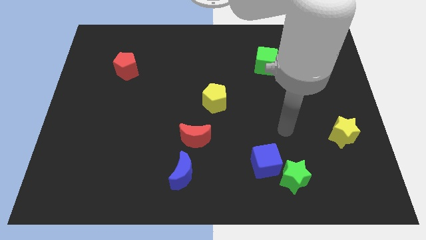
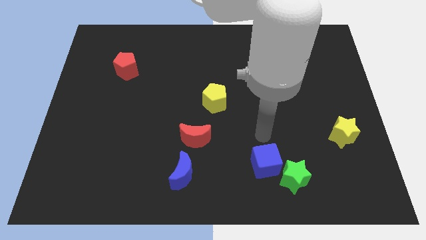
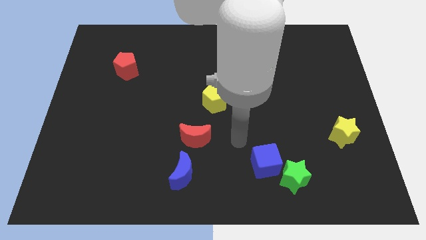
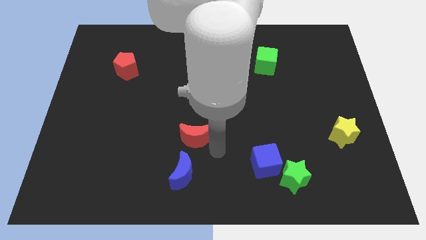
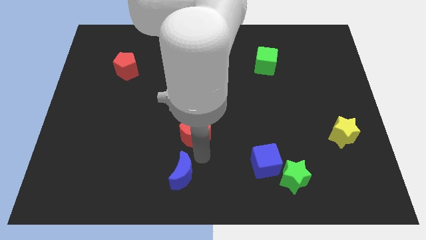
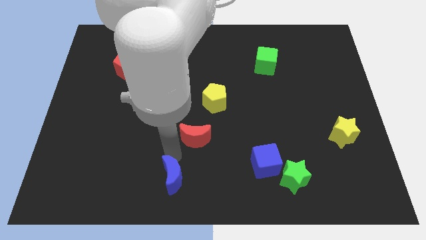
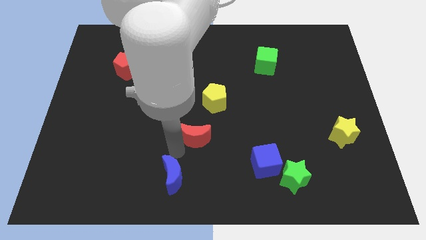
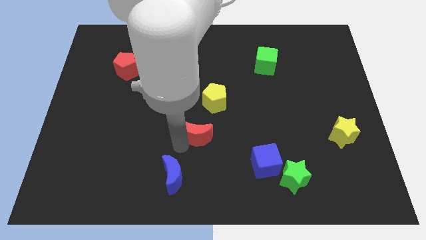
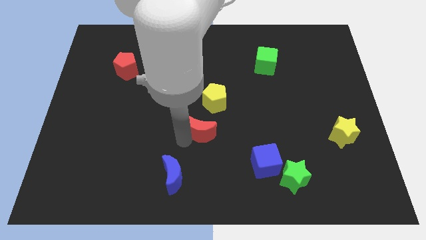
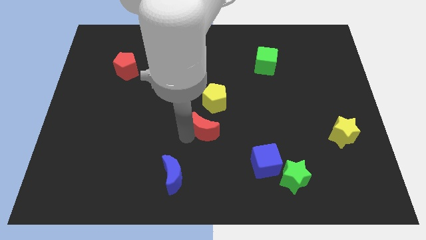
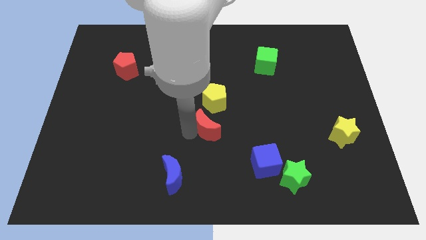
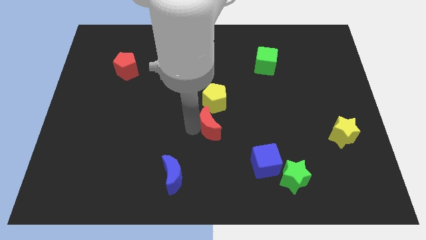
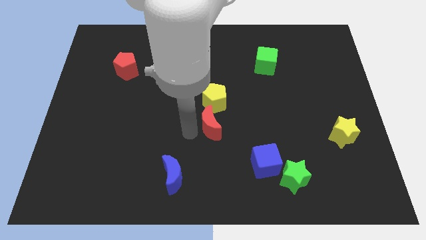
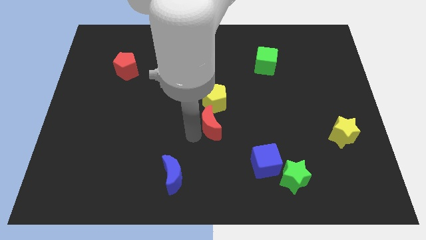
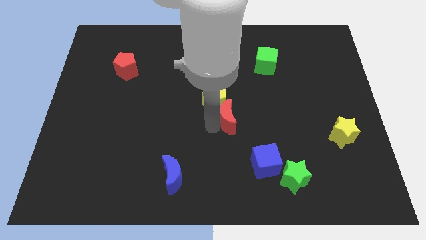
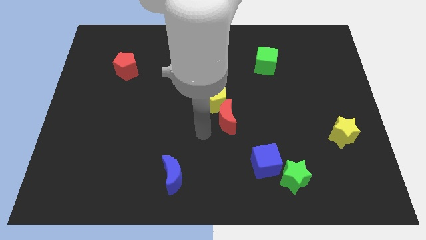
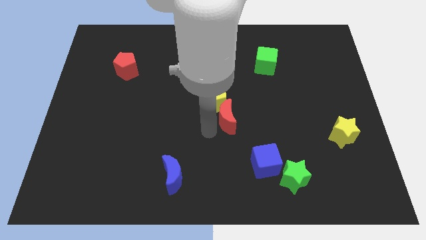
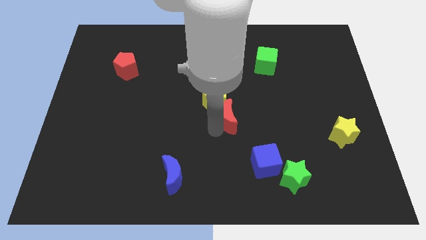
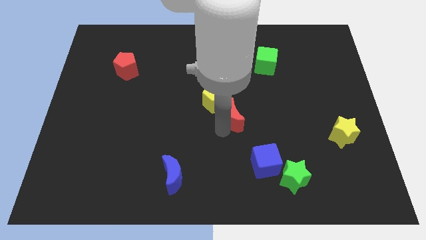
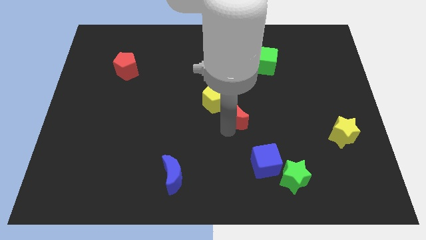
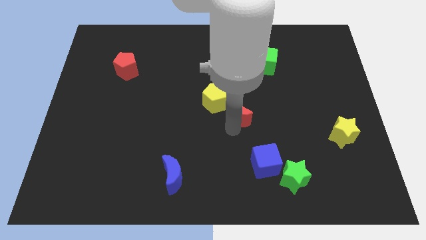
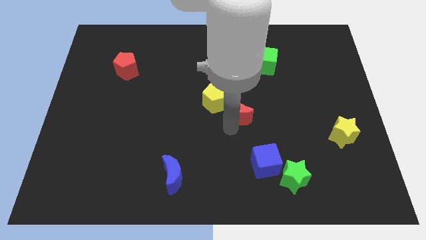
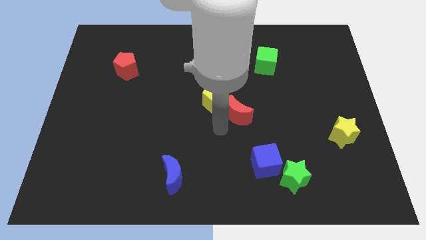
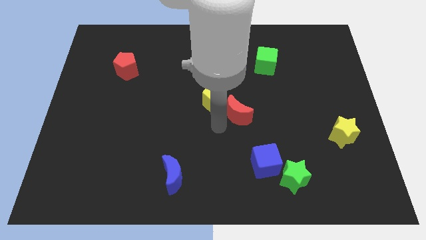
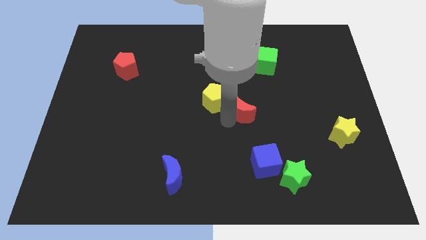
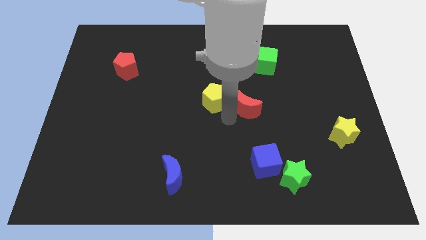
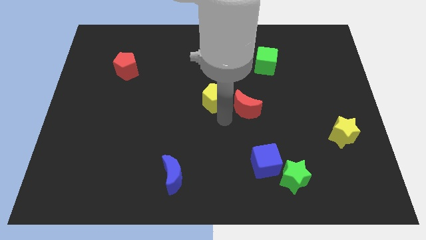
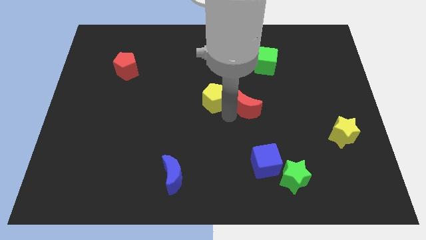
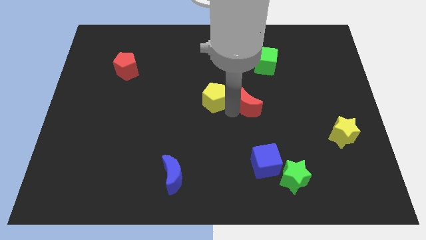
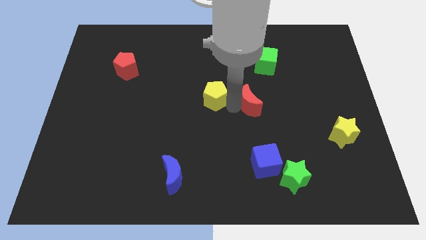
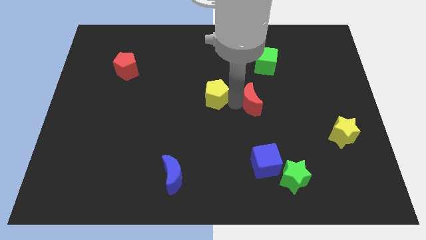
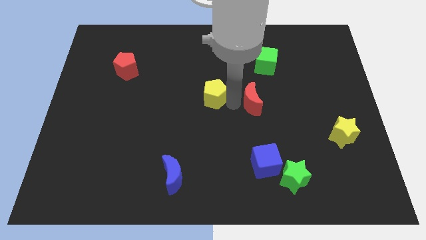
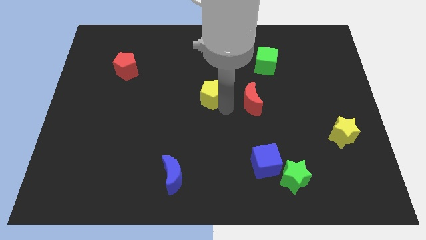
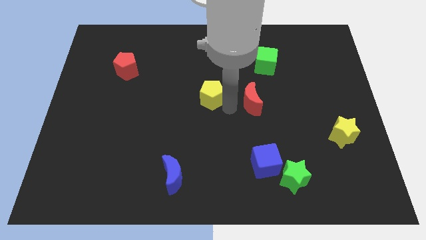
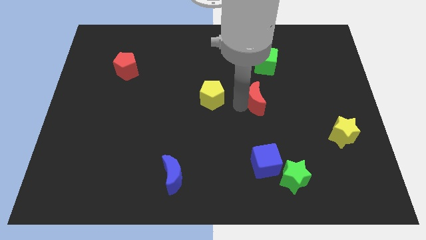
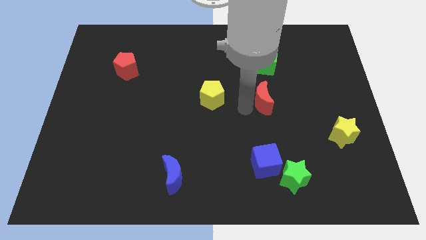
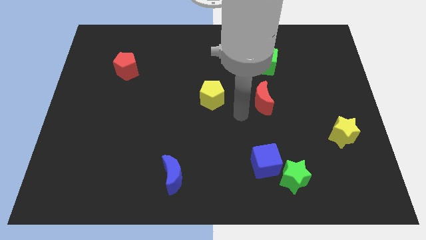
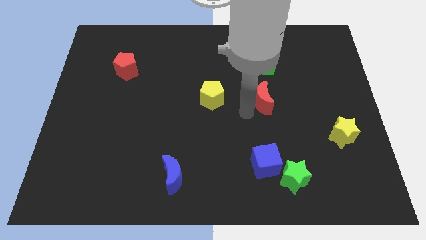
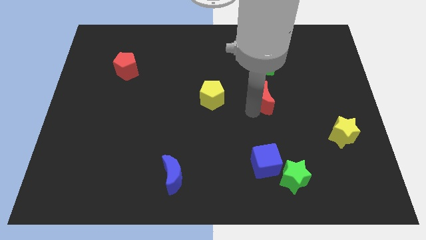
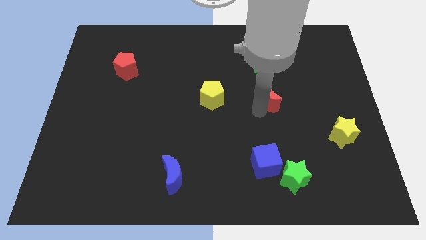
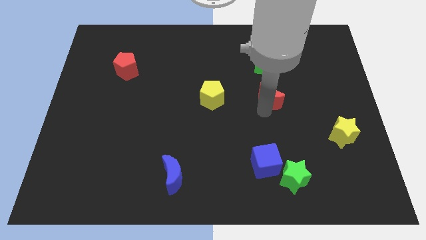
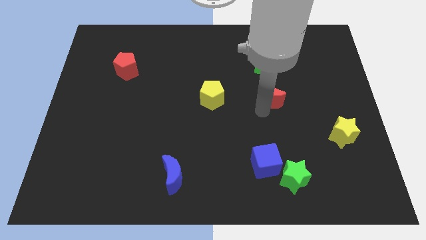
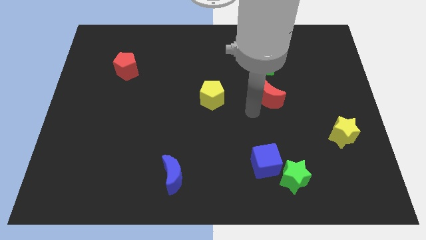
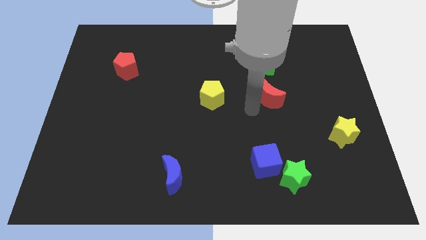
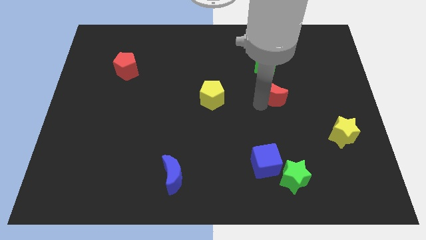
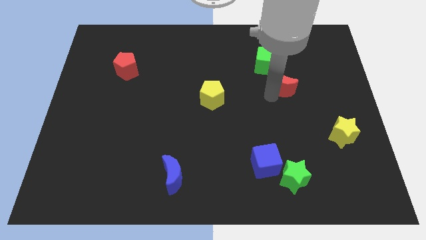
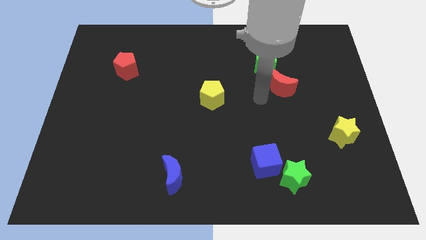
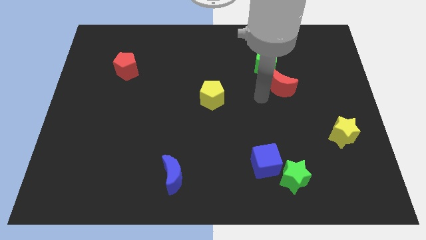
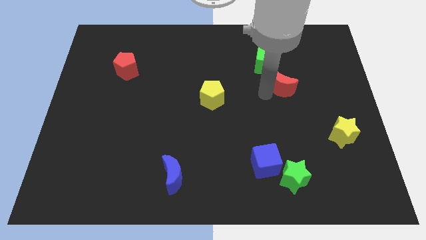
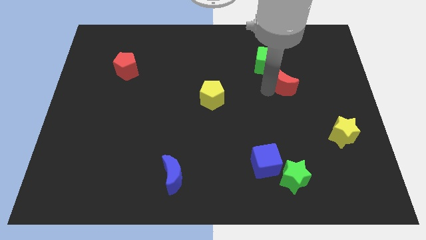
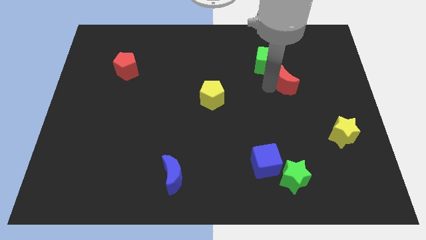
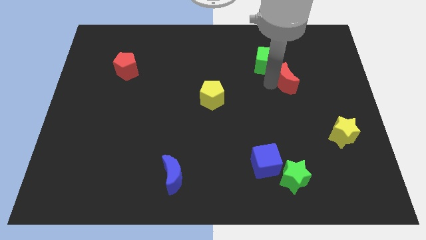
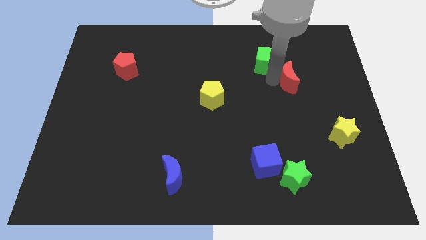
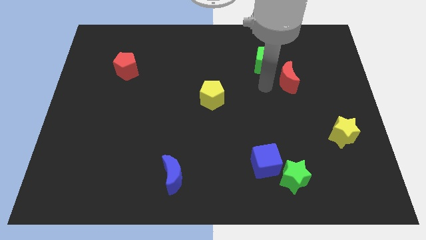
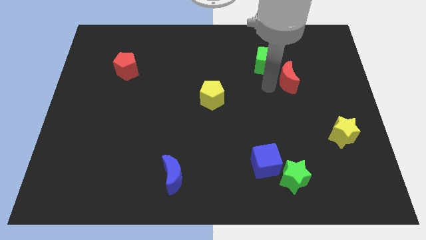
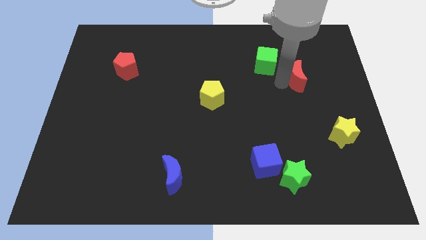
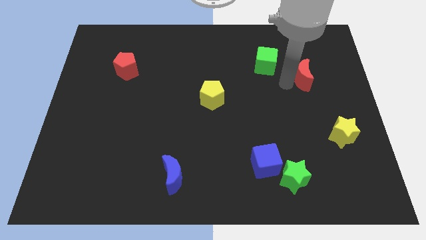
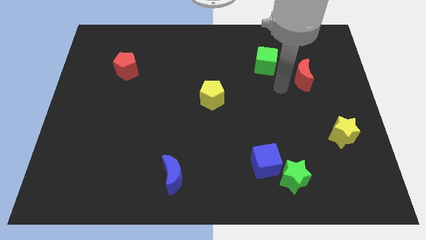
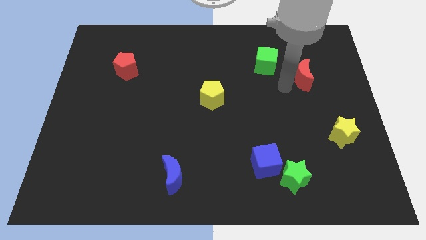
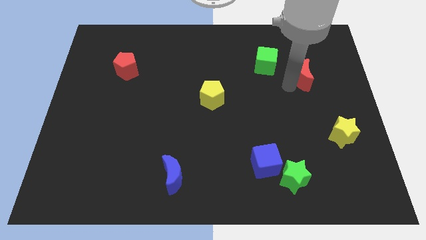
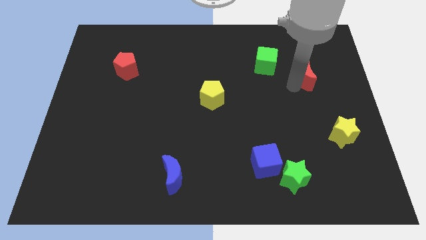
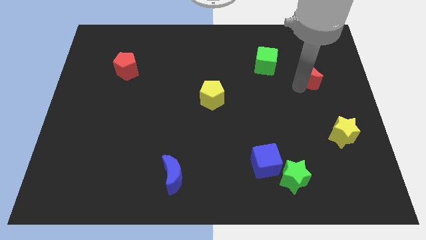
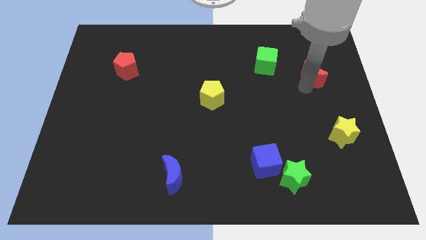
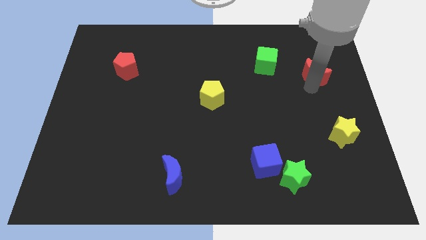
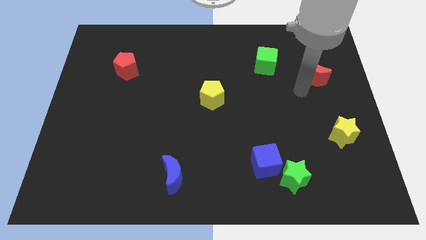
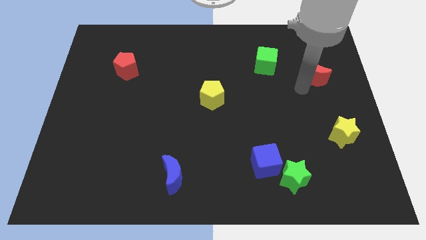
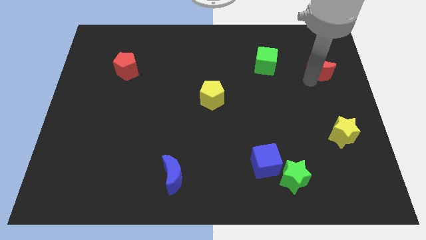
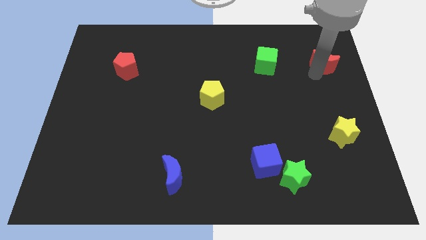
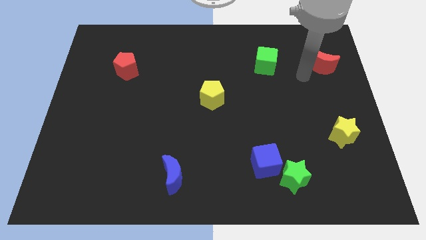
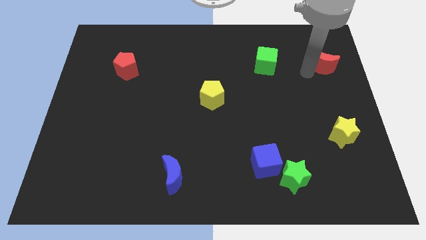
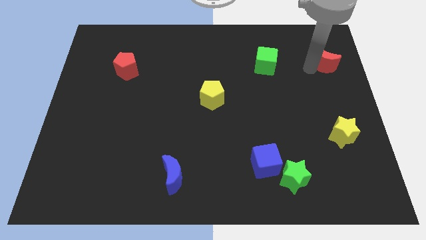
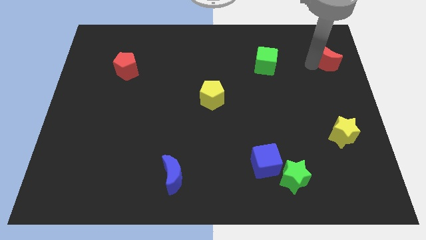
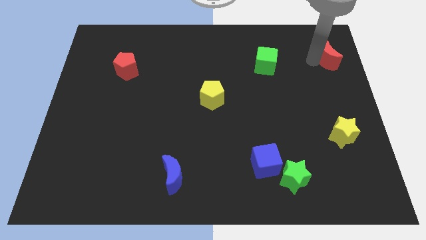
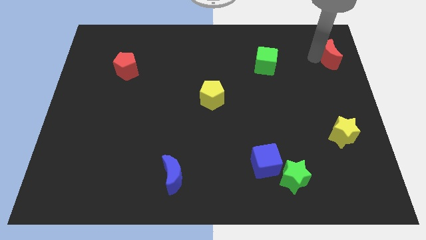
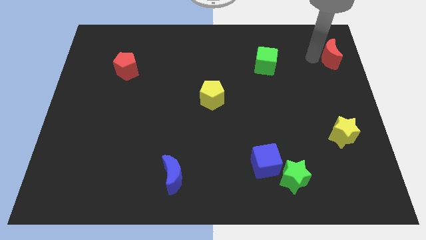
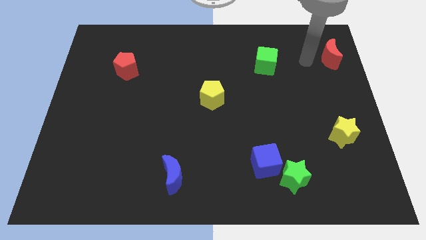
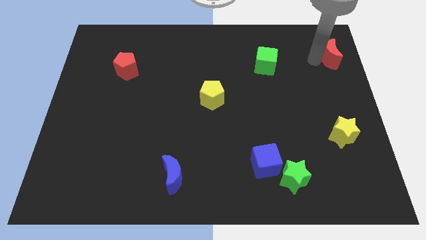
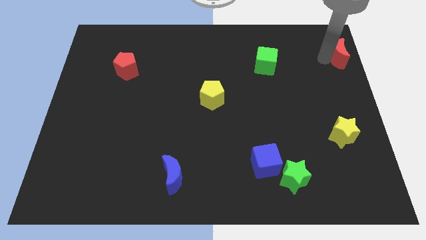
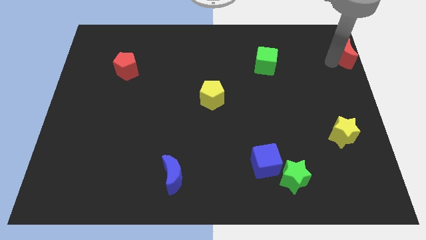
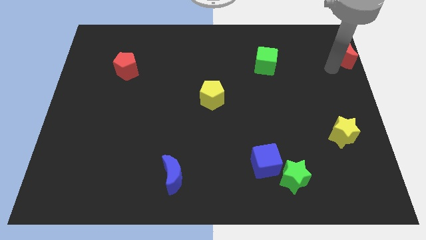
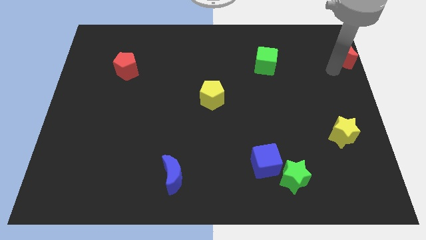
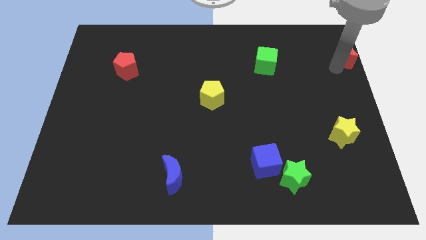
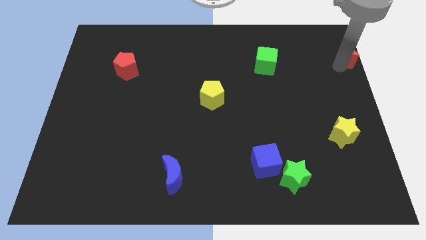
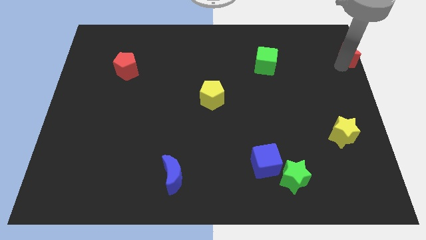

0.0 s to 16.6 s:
slide the red moon to the top right
